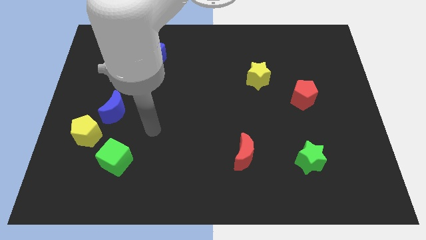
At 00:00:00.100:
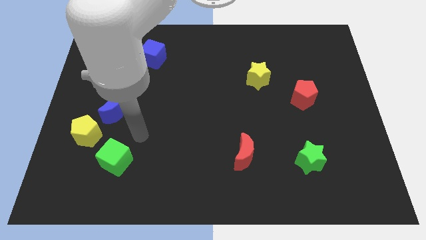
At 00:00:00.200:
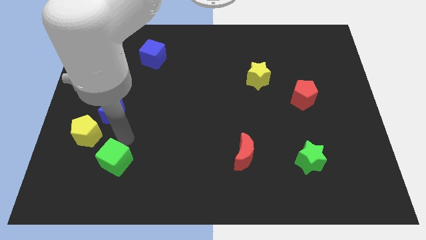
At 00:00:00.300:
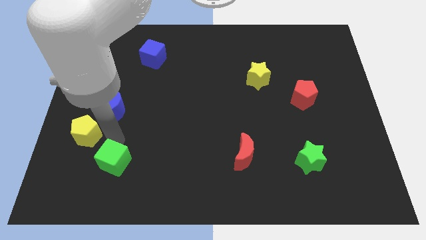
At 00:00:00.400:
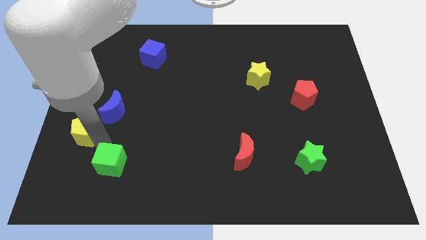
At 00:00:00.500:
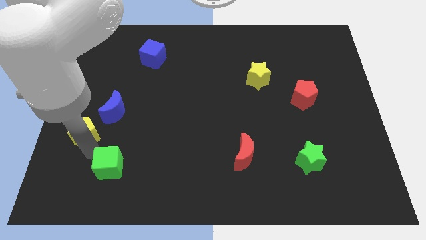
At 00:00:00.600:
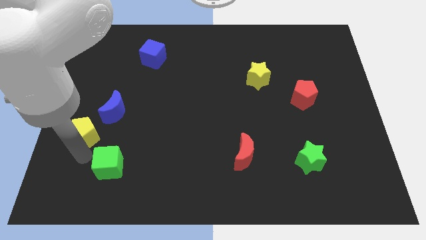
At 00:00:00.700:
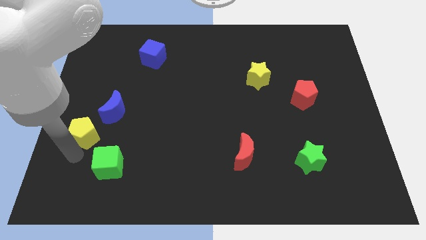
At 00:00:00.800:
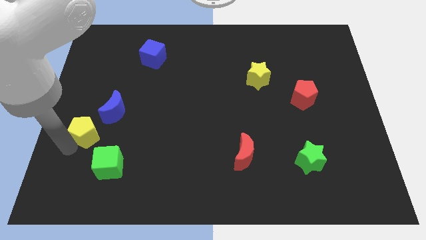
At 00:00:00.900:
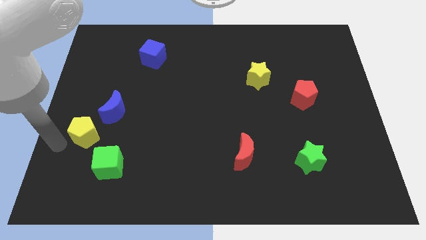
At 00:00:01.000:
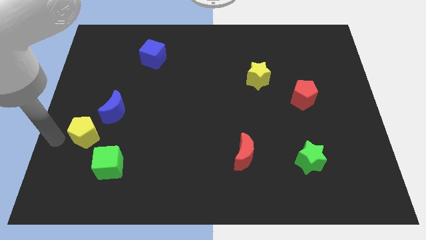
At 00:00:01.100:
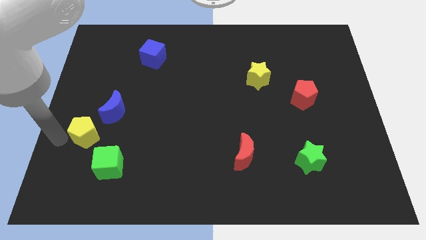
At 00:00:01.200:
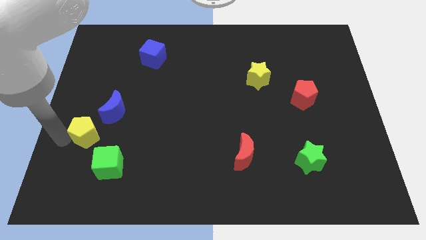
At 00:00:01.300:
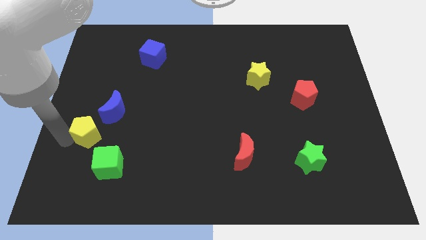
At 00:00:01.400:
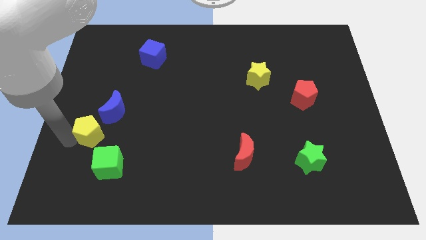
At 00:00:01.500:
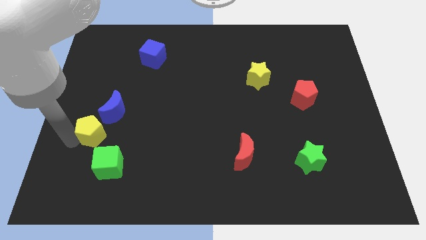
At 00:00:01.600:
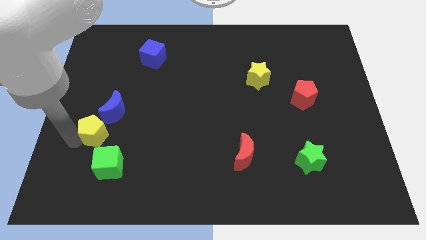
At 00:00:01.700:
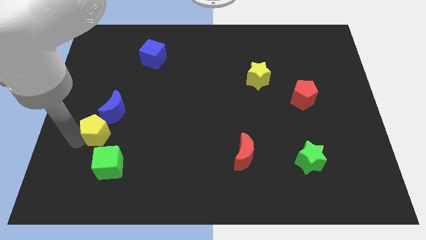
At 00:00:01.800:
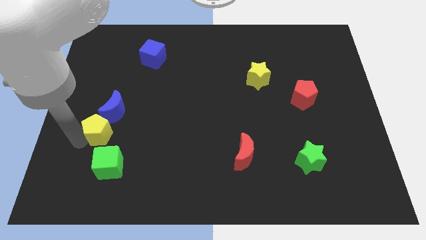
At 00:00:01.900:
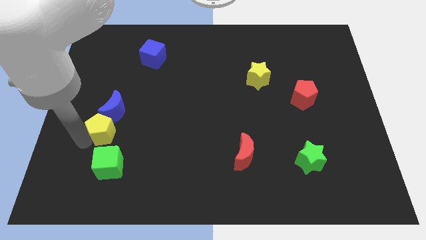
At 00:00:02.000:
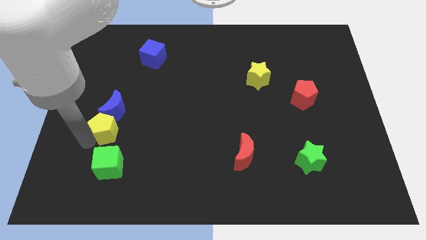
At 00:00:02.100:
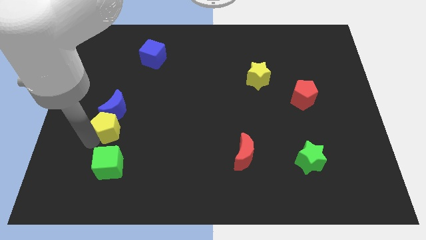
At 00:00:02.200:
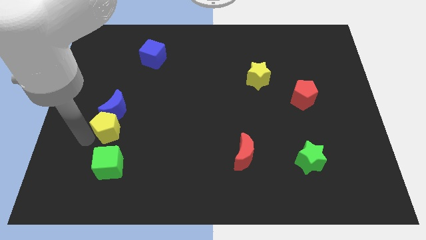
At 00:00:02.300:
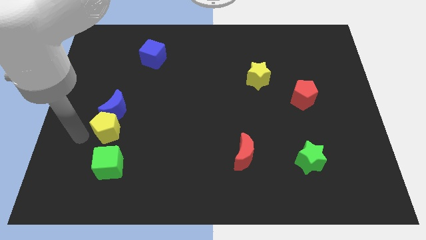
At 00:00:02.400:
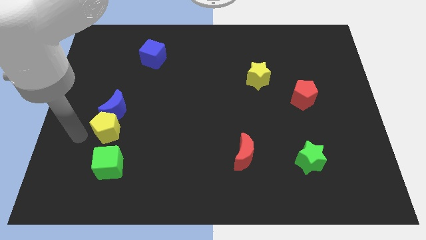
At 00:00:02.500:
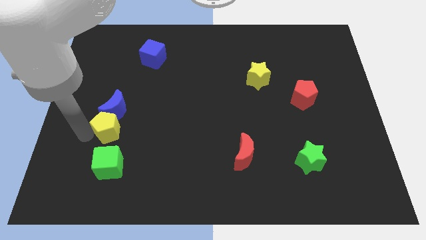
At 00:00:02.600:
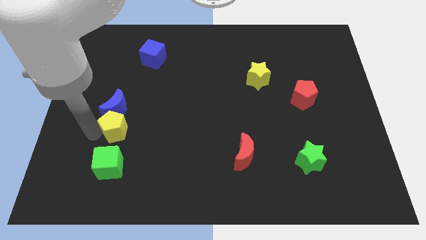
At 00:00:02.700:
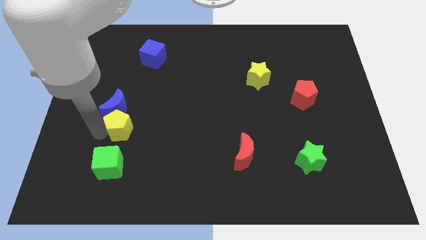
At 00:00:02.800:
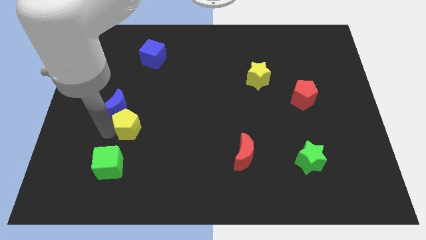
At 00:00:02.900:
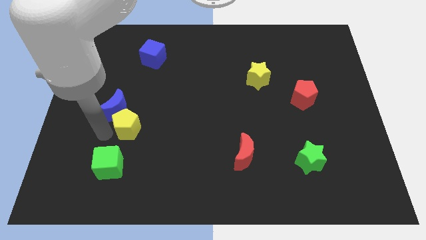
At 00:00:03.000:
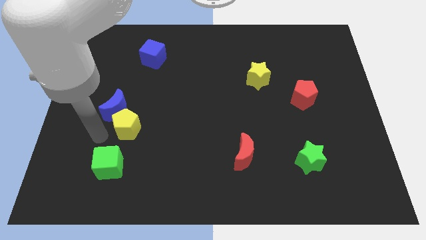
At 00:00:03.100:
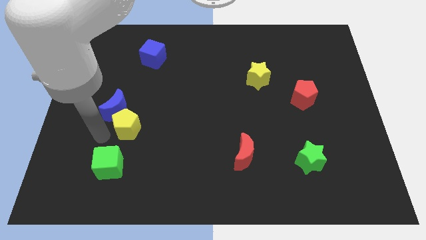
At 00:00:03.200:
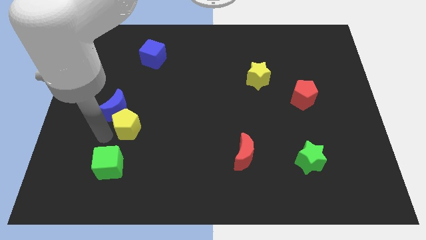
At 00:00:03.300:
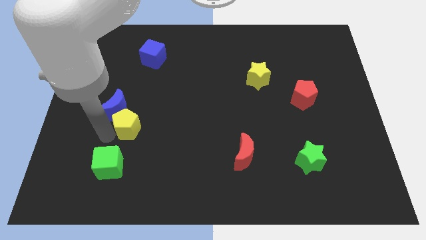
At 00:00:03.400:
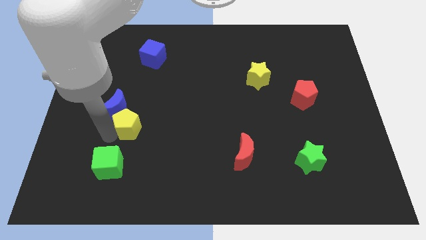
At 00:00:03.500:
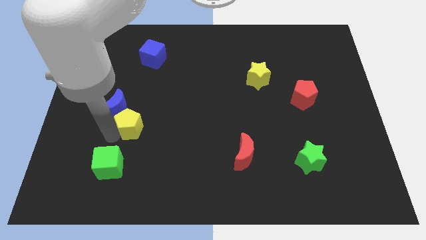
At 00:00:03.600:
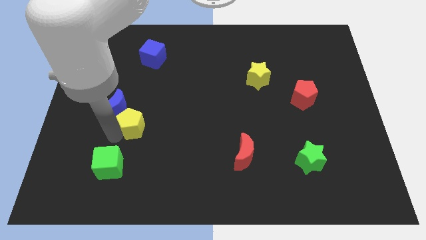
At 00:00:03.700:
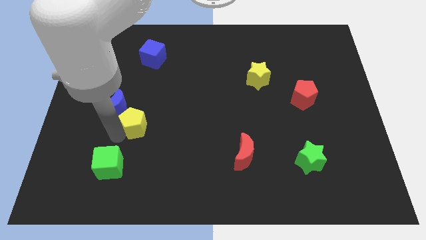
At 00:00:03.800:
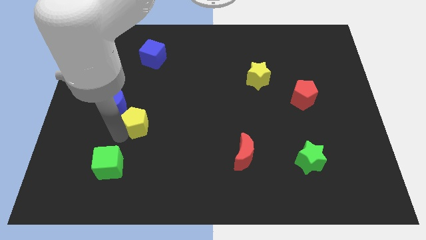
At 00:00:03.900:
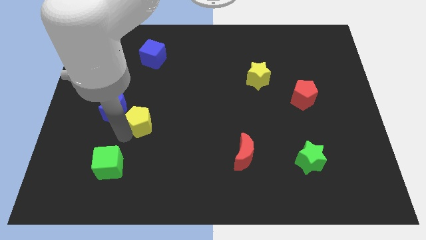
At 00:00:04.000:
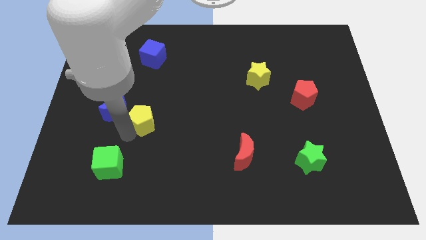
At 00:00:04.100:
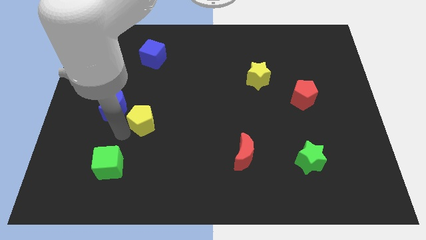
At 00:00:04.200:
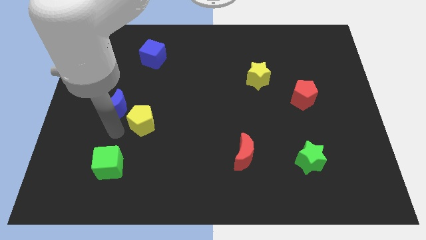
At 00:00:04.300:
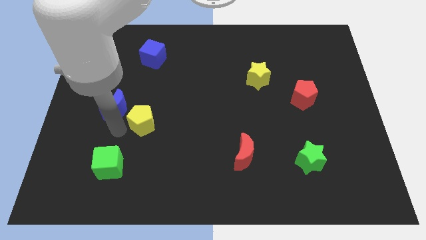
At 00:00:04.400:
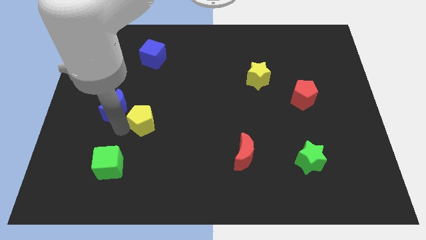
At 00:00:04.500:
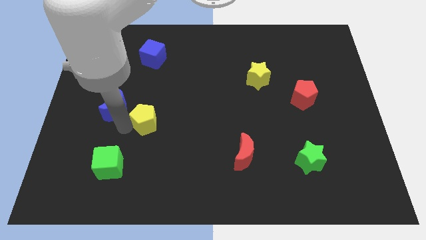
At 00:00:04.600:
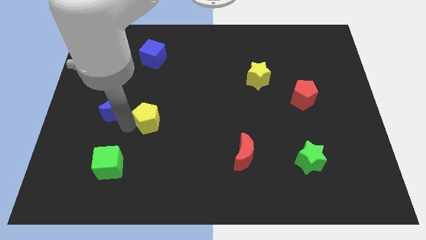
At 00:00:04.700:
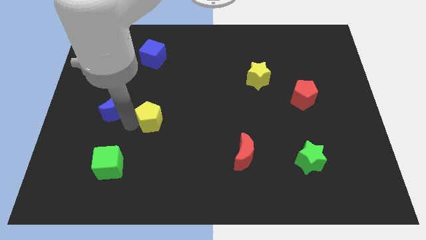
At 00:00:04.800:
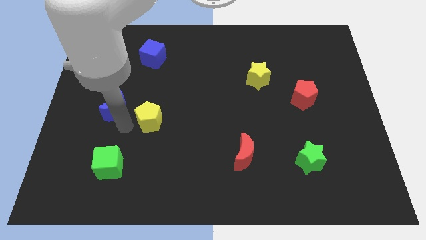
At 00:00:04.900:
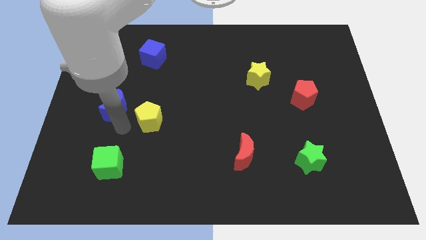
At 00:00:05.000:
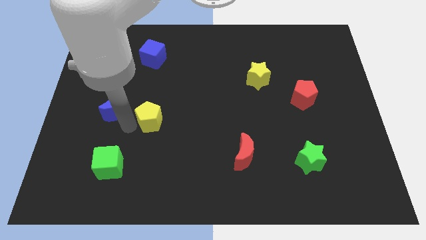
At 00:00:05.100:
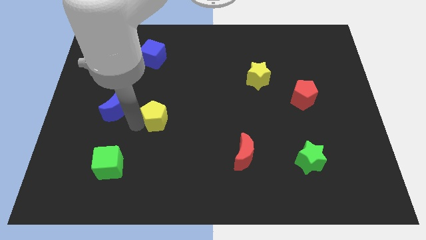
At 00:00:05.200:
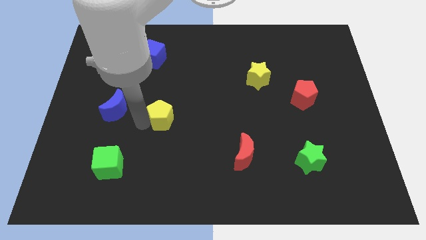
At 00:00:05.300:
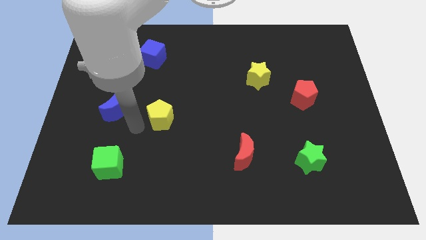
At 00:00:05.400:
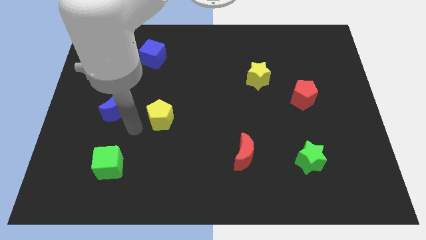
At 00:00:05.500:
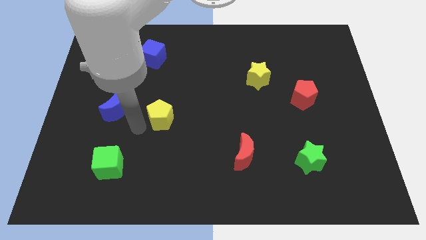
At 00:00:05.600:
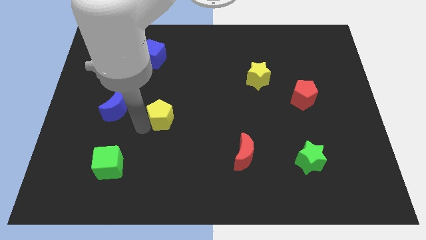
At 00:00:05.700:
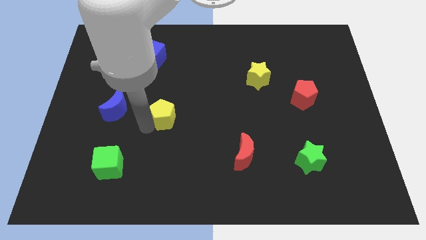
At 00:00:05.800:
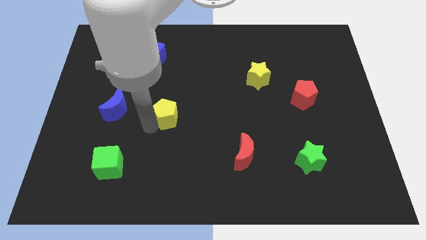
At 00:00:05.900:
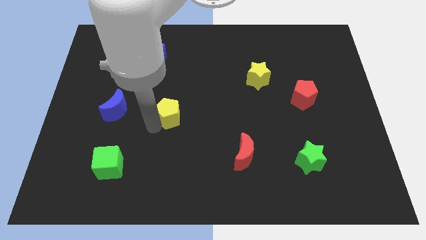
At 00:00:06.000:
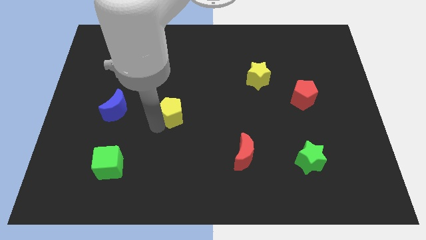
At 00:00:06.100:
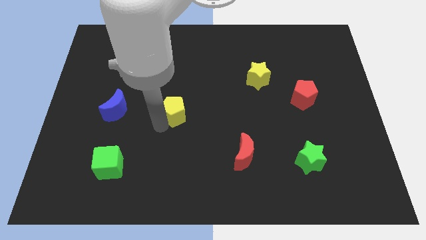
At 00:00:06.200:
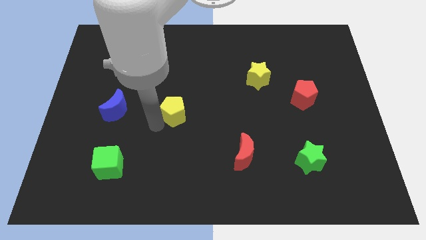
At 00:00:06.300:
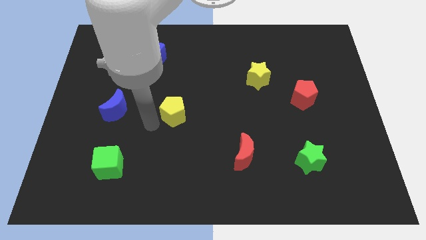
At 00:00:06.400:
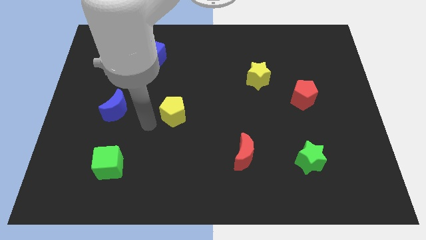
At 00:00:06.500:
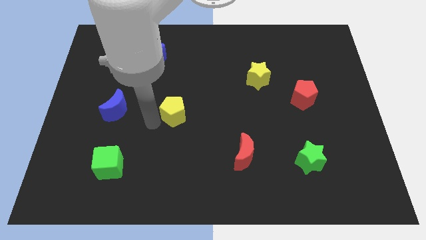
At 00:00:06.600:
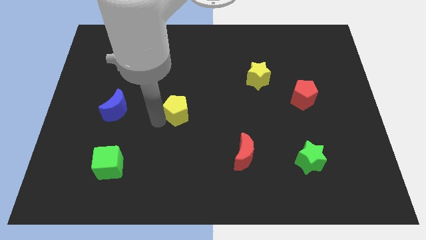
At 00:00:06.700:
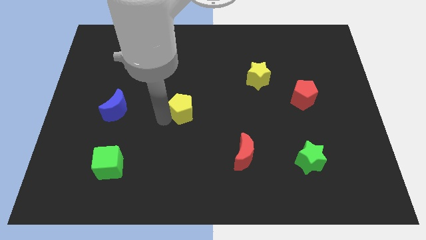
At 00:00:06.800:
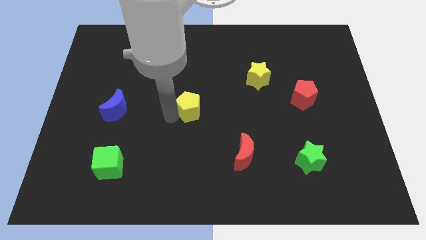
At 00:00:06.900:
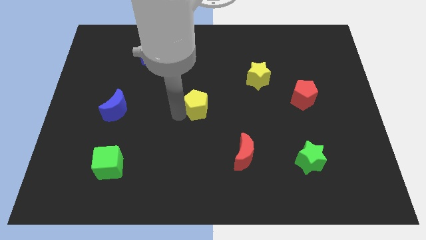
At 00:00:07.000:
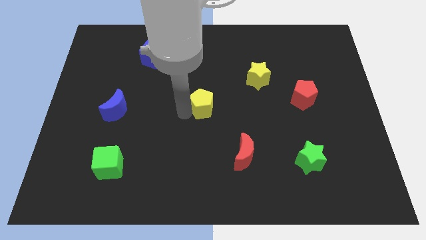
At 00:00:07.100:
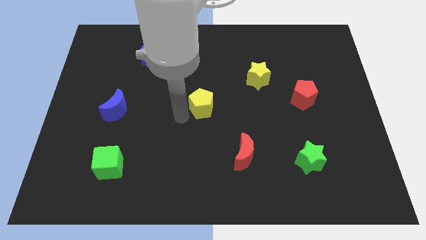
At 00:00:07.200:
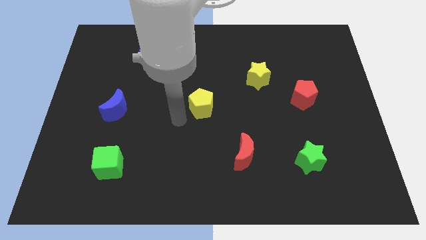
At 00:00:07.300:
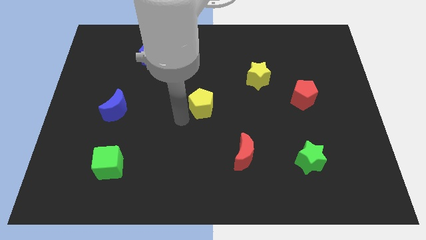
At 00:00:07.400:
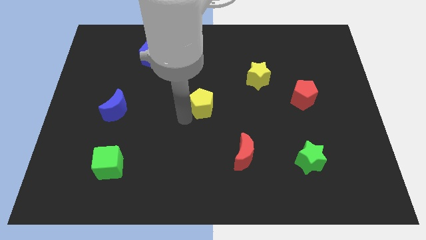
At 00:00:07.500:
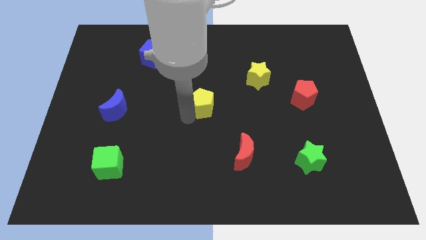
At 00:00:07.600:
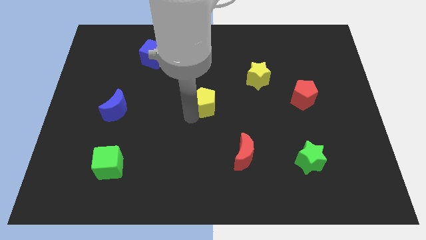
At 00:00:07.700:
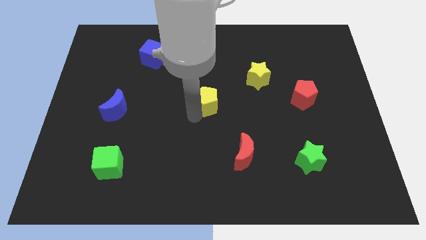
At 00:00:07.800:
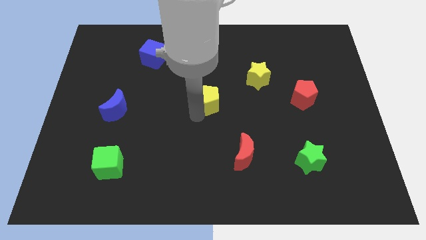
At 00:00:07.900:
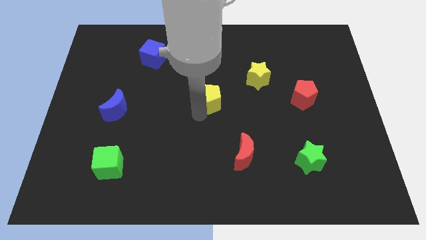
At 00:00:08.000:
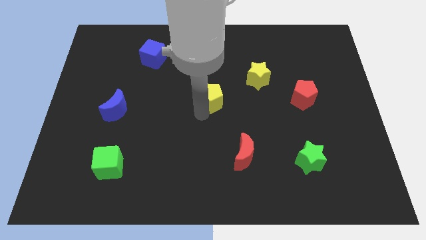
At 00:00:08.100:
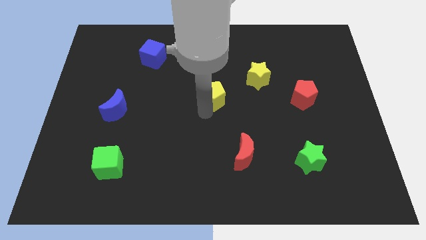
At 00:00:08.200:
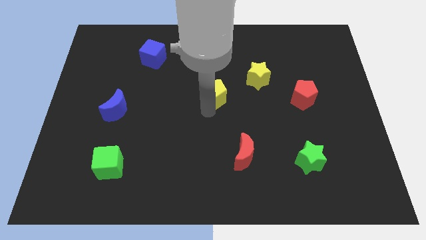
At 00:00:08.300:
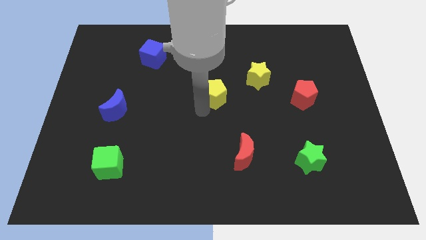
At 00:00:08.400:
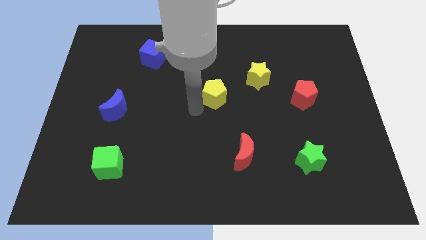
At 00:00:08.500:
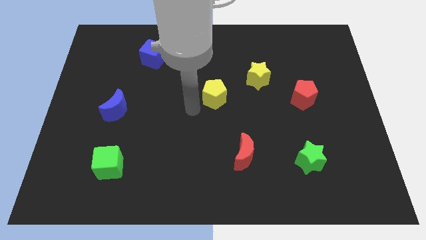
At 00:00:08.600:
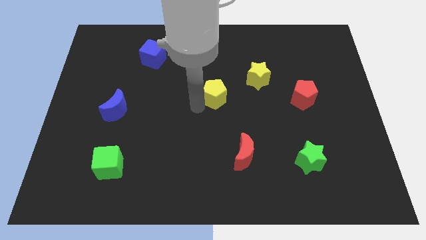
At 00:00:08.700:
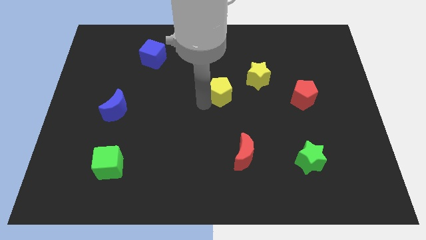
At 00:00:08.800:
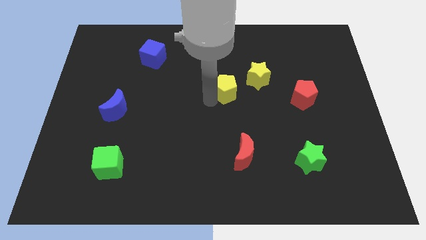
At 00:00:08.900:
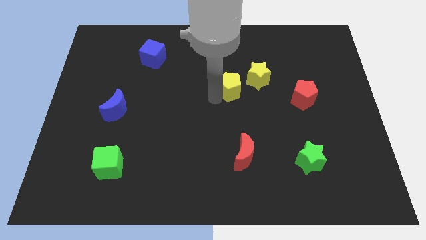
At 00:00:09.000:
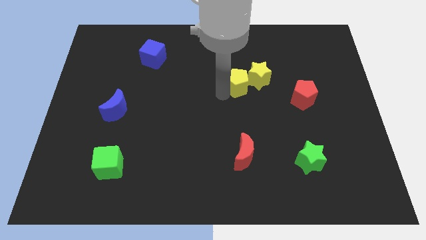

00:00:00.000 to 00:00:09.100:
put the yellow pentagon next to the yellow star
